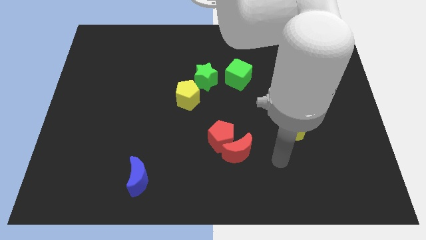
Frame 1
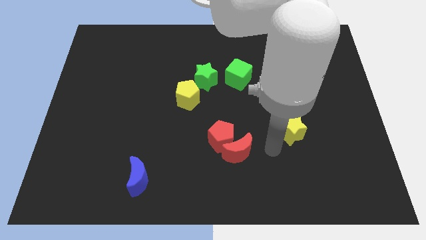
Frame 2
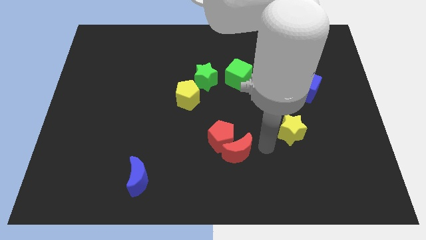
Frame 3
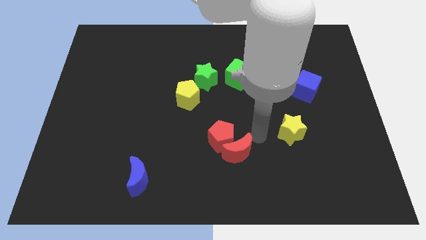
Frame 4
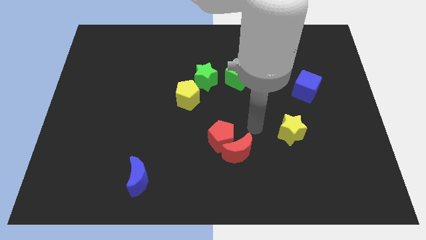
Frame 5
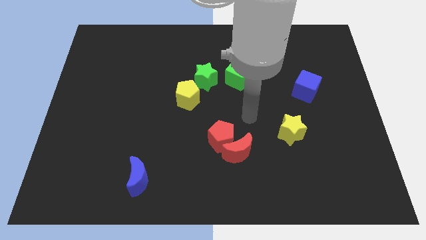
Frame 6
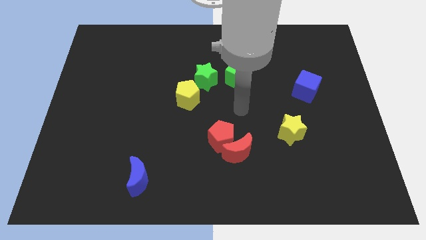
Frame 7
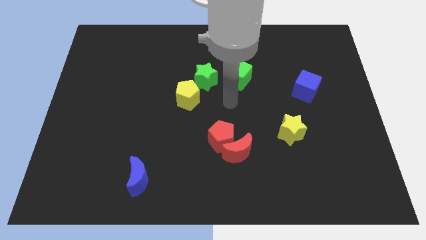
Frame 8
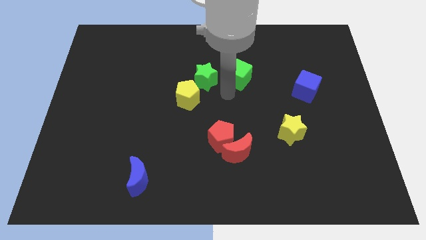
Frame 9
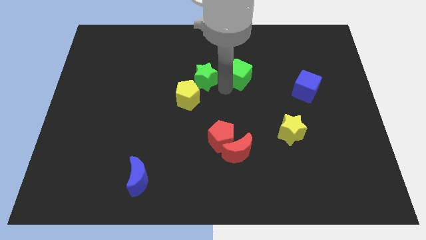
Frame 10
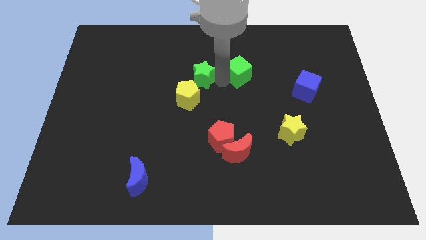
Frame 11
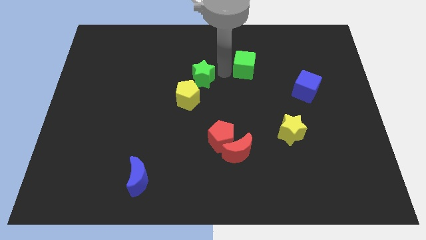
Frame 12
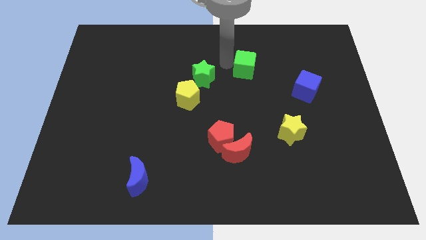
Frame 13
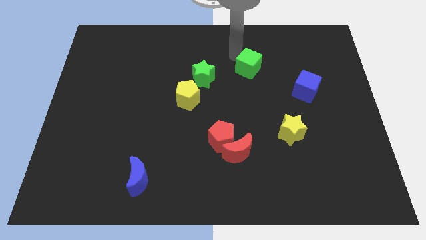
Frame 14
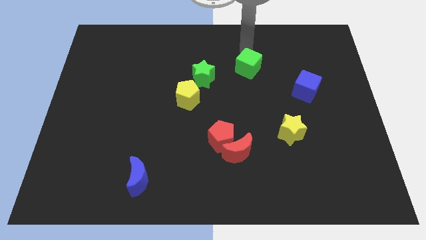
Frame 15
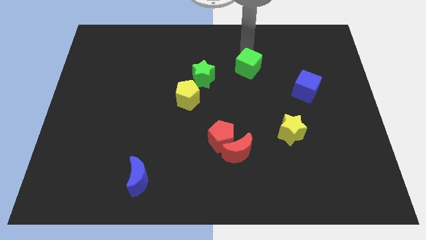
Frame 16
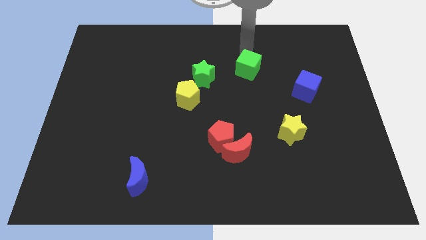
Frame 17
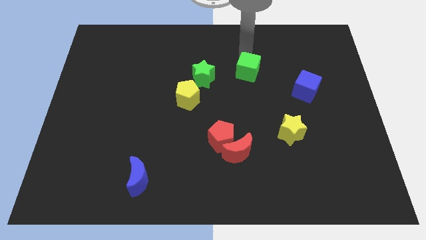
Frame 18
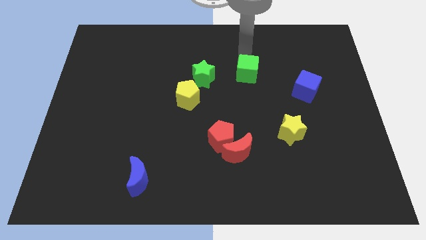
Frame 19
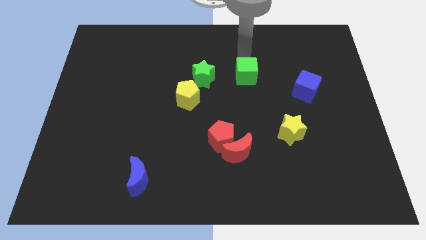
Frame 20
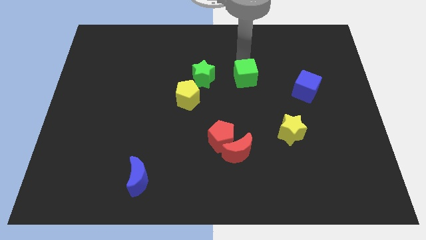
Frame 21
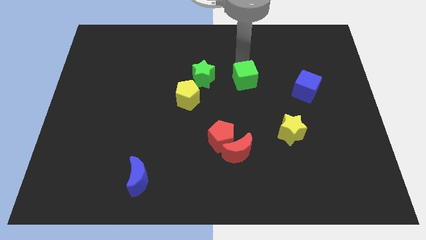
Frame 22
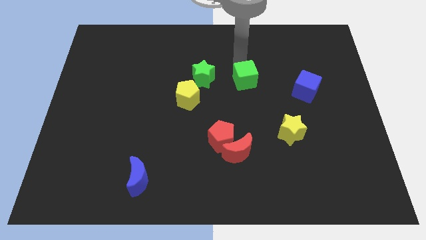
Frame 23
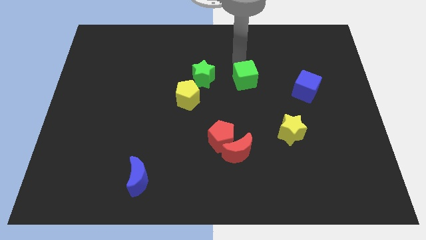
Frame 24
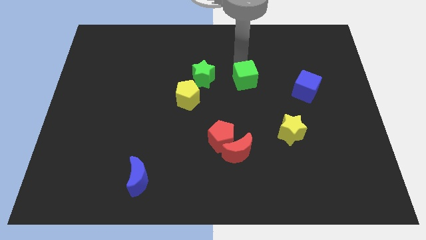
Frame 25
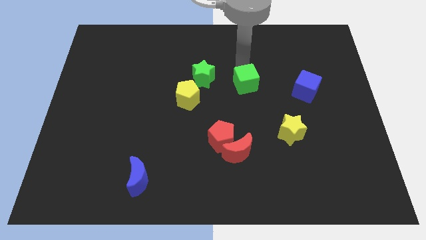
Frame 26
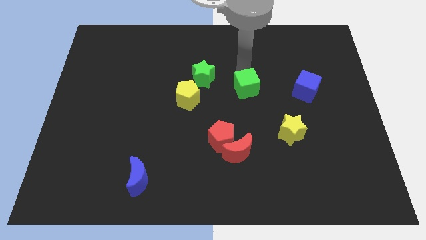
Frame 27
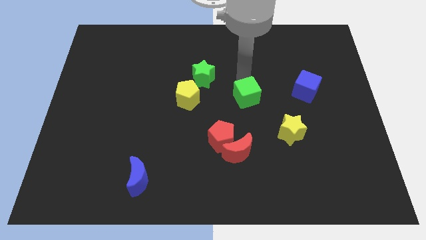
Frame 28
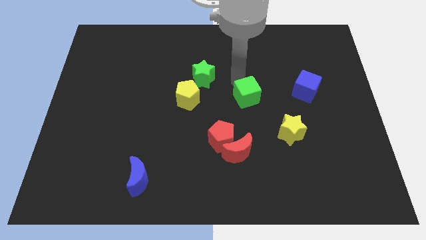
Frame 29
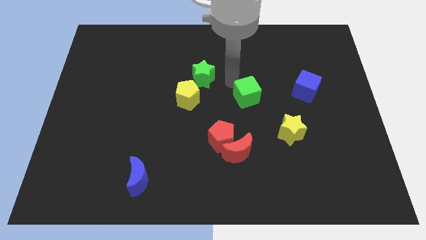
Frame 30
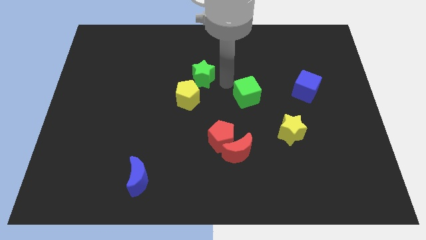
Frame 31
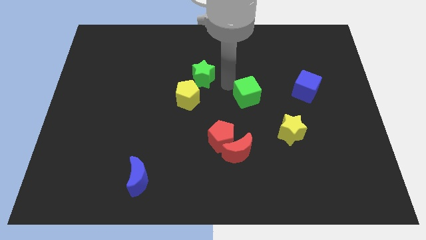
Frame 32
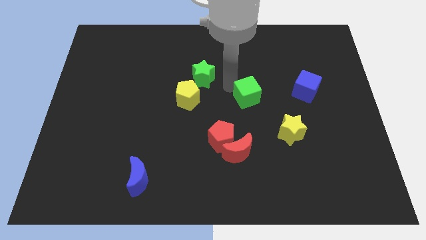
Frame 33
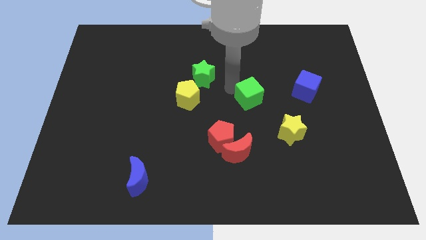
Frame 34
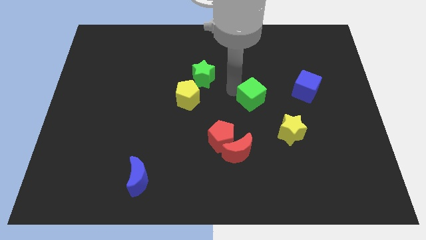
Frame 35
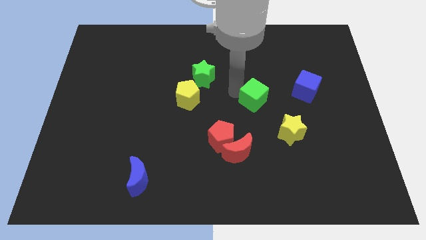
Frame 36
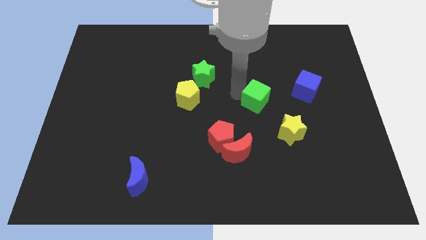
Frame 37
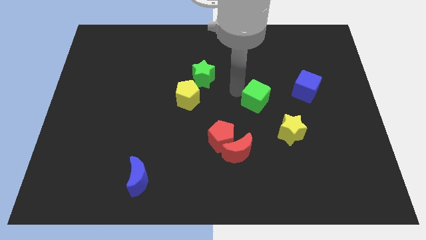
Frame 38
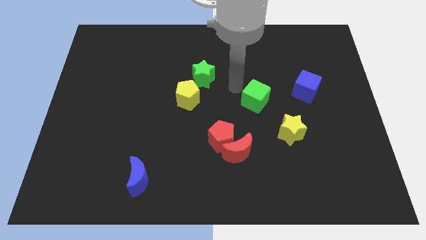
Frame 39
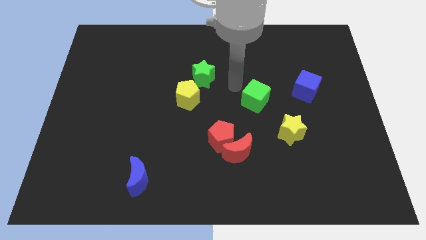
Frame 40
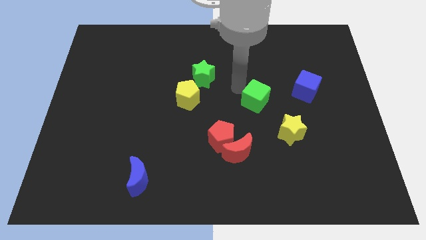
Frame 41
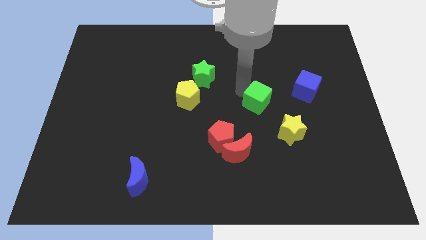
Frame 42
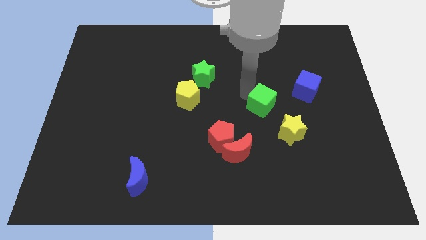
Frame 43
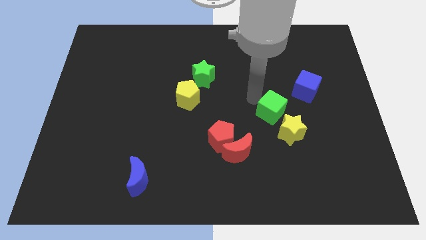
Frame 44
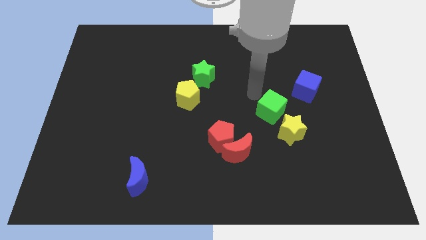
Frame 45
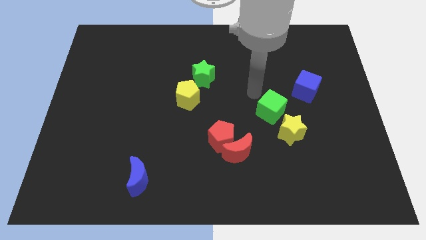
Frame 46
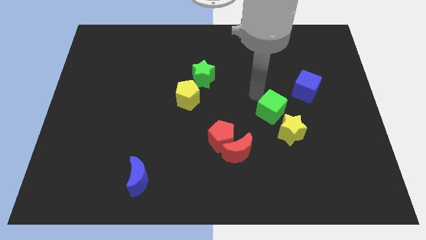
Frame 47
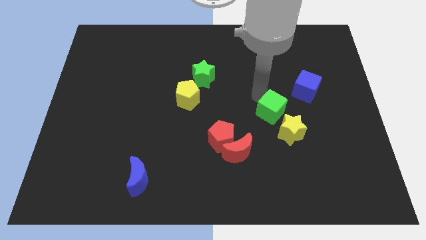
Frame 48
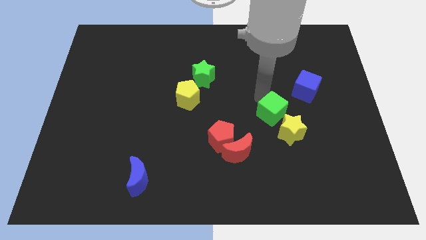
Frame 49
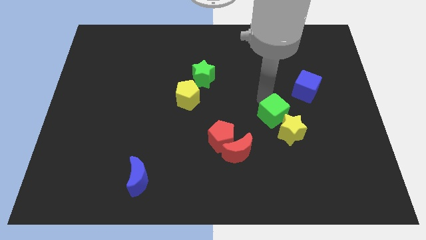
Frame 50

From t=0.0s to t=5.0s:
push the green cube towards the yellow star

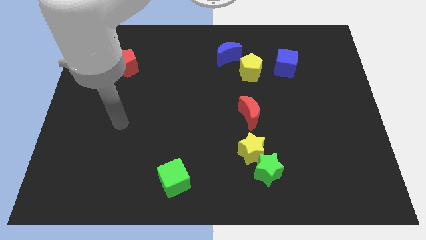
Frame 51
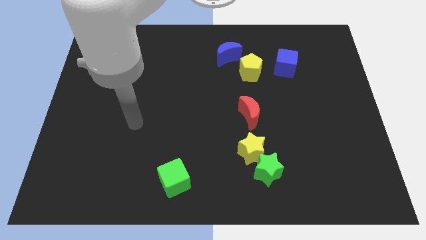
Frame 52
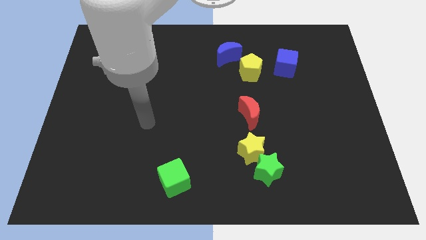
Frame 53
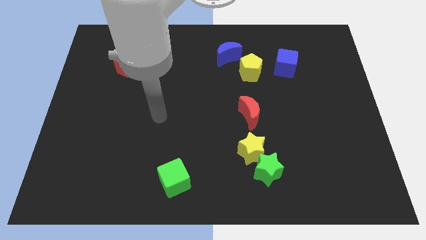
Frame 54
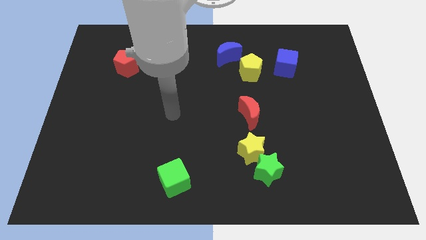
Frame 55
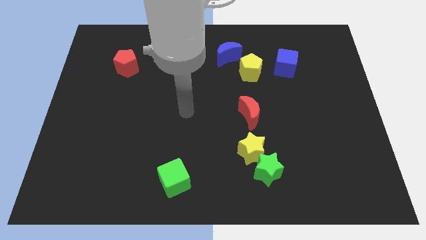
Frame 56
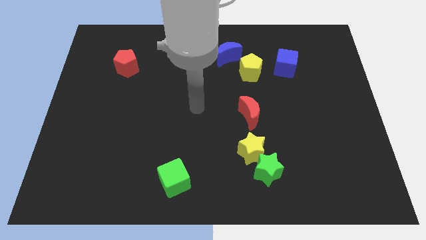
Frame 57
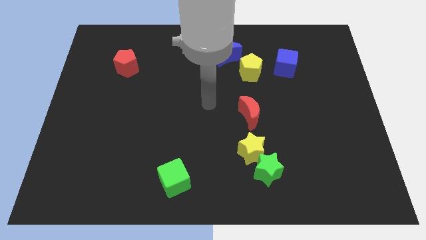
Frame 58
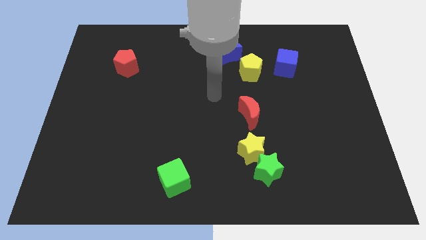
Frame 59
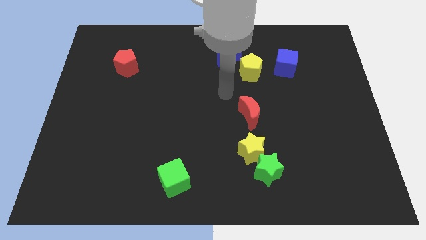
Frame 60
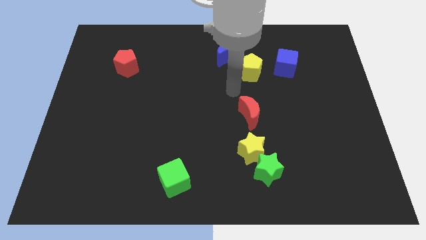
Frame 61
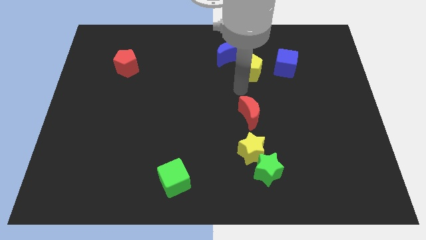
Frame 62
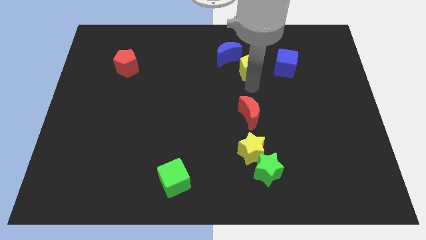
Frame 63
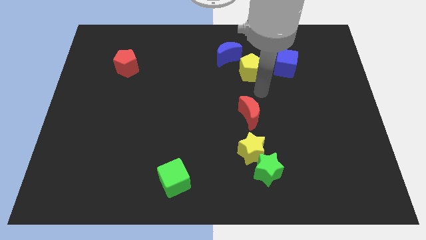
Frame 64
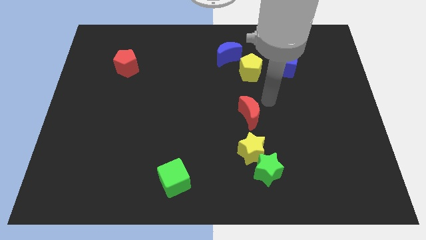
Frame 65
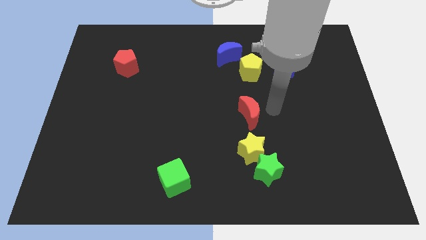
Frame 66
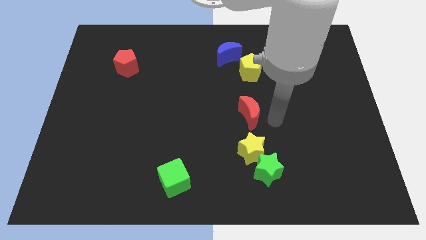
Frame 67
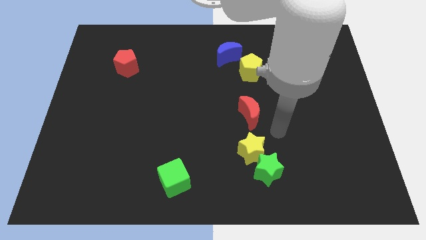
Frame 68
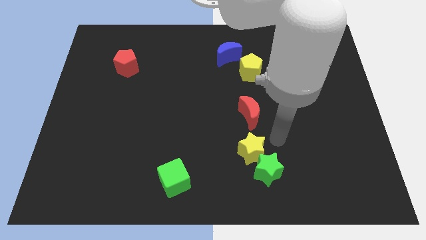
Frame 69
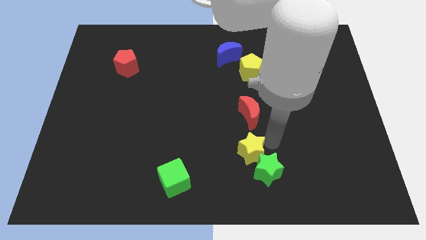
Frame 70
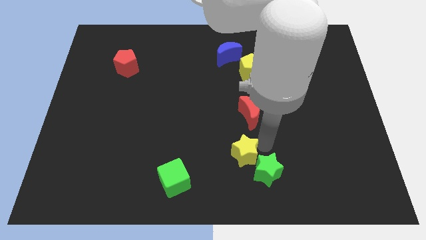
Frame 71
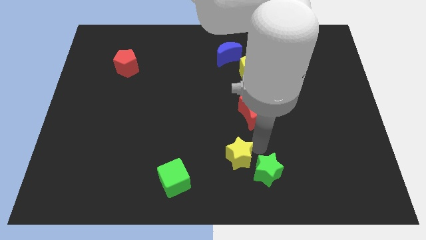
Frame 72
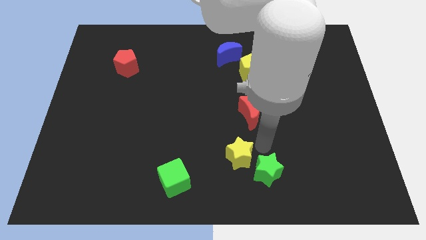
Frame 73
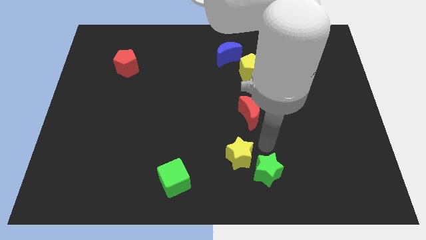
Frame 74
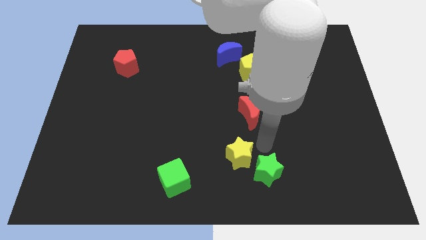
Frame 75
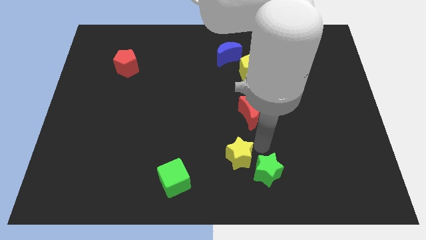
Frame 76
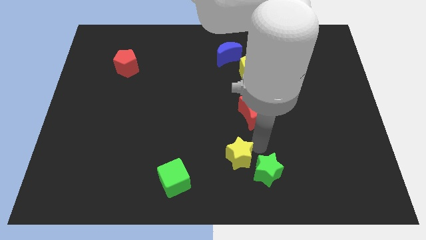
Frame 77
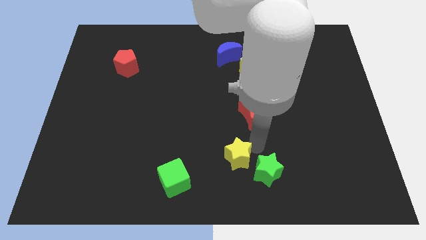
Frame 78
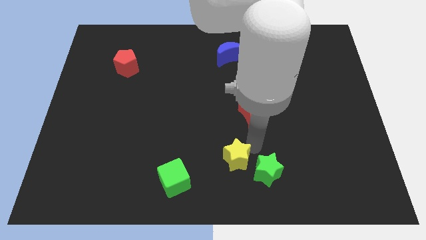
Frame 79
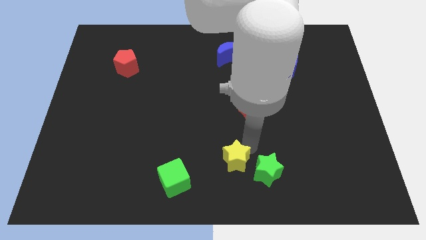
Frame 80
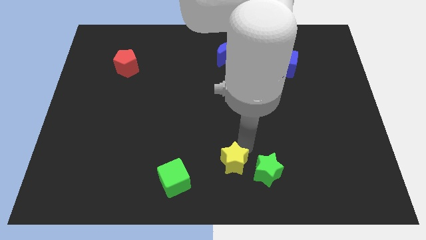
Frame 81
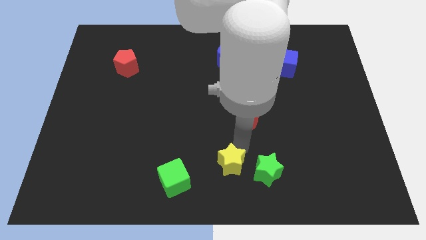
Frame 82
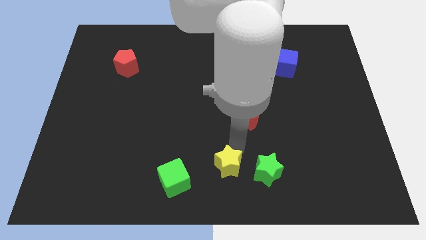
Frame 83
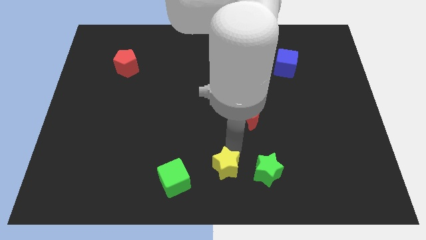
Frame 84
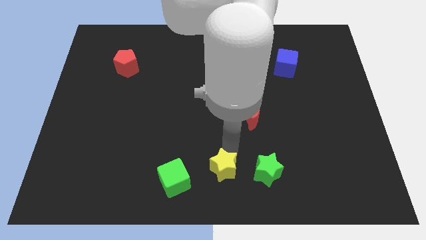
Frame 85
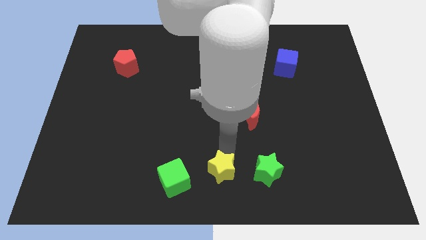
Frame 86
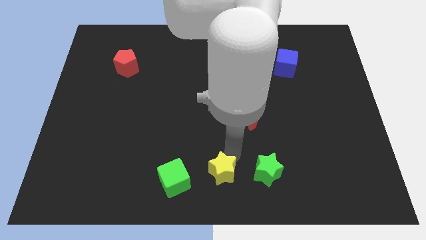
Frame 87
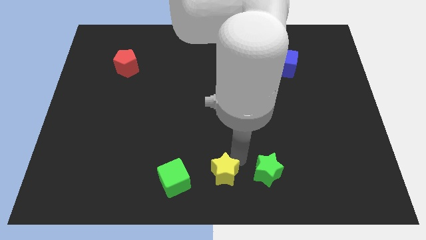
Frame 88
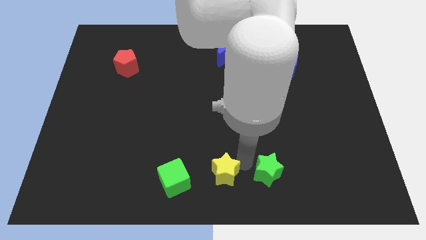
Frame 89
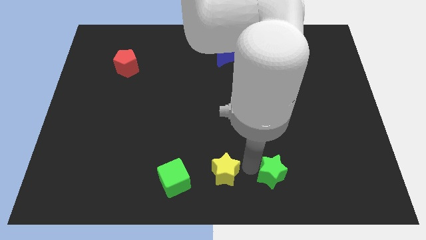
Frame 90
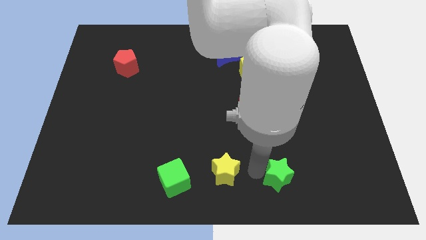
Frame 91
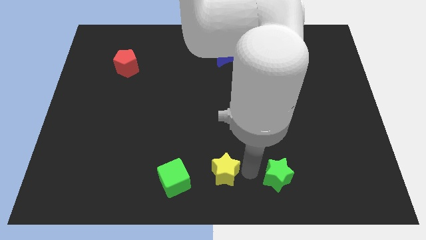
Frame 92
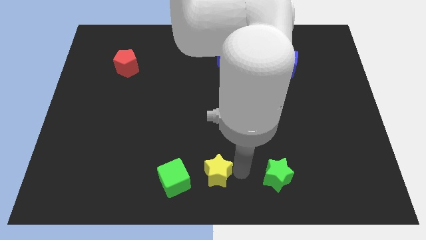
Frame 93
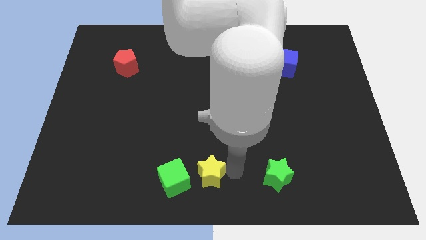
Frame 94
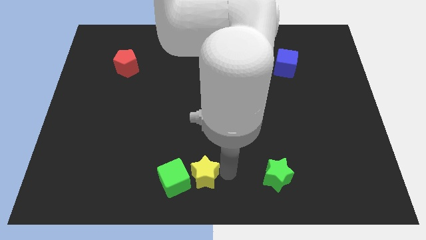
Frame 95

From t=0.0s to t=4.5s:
push the yellow star to the green cube
